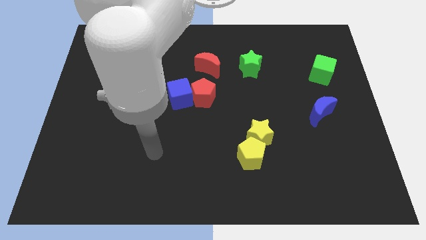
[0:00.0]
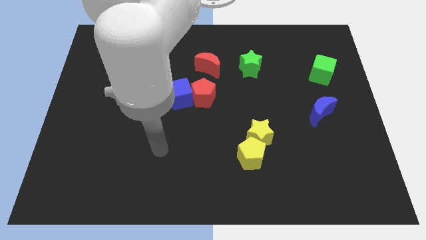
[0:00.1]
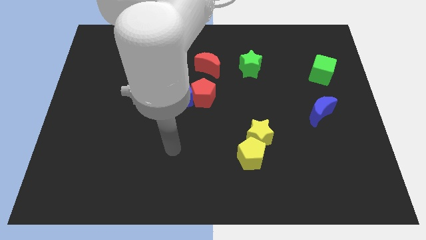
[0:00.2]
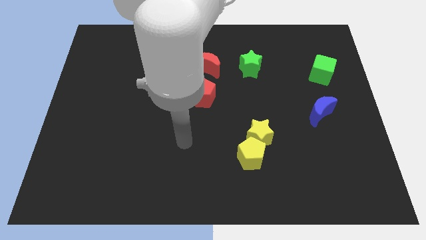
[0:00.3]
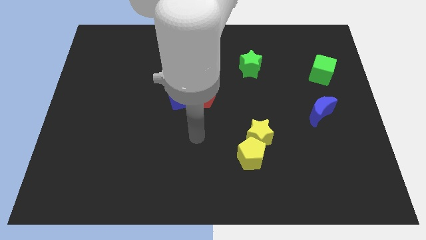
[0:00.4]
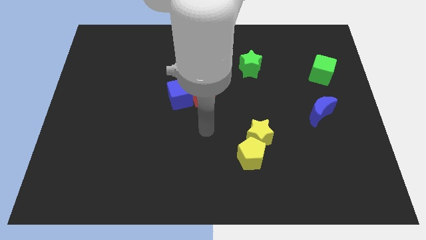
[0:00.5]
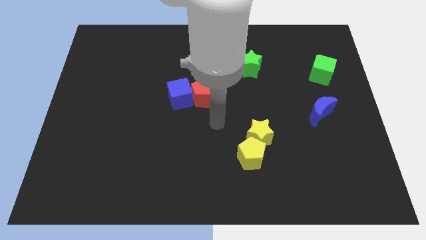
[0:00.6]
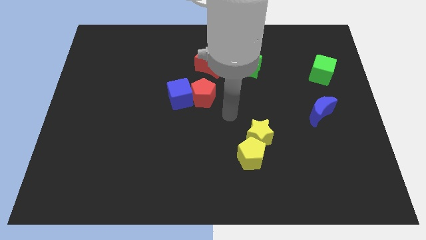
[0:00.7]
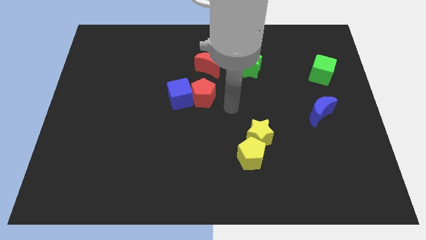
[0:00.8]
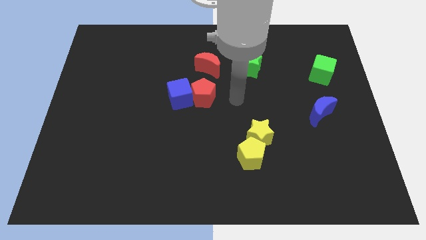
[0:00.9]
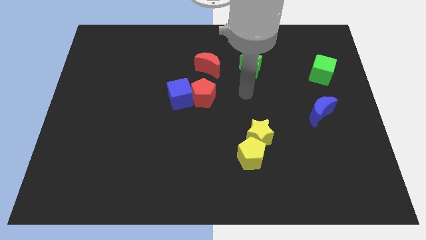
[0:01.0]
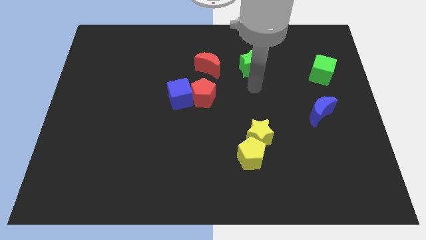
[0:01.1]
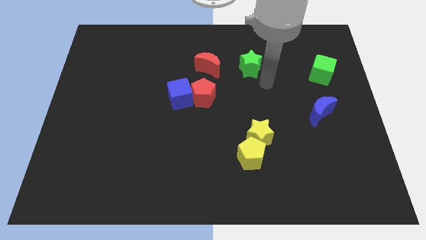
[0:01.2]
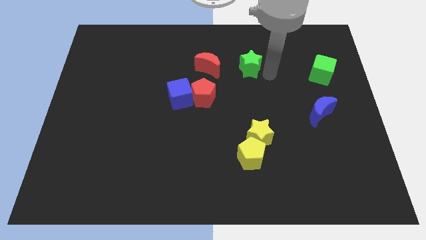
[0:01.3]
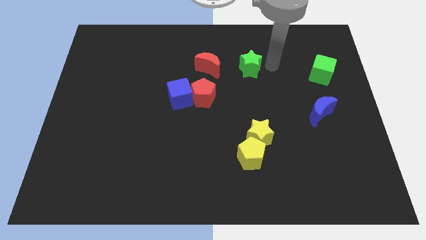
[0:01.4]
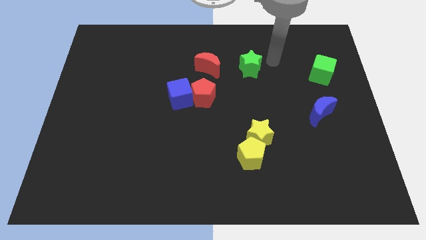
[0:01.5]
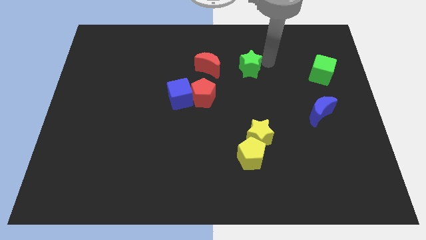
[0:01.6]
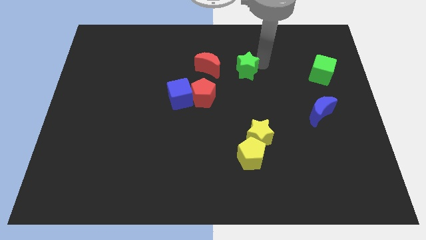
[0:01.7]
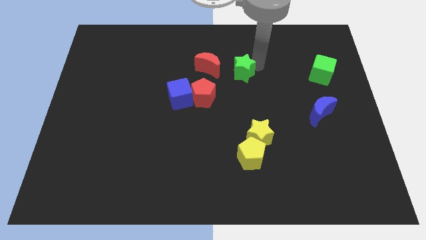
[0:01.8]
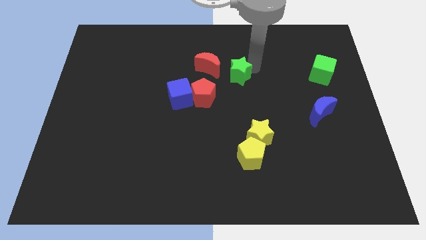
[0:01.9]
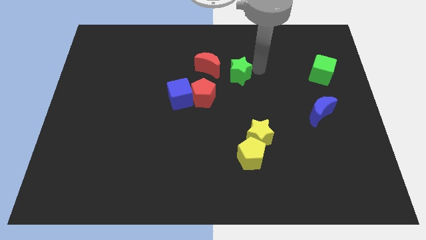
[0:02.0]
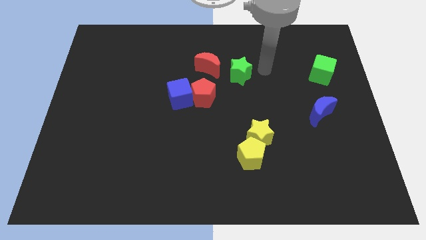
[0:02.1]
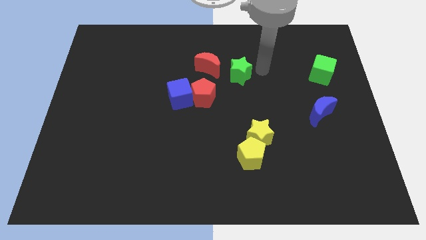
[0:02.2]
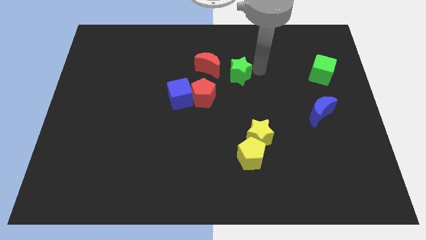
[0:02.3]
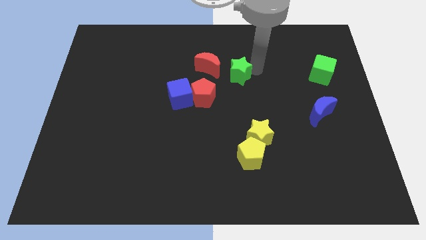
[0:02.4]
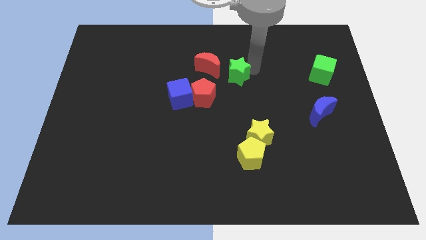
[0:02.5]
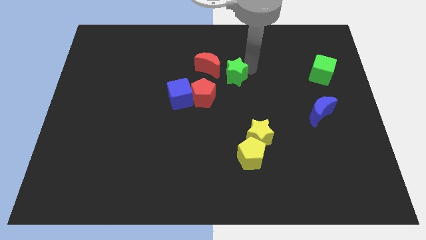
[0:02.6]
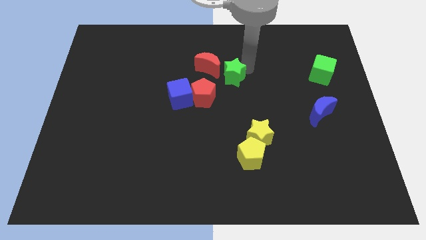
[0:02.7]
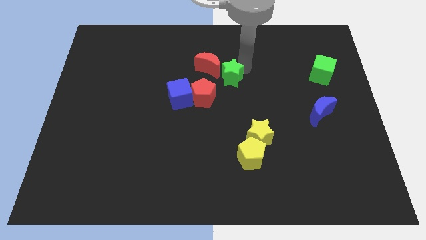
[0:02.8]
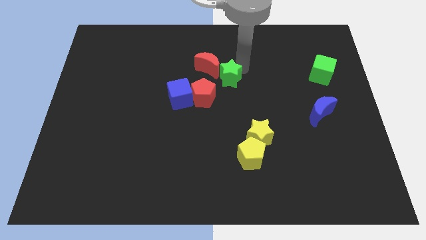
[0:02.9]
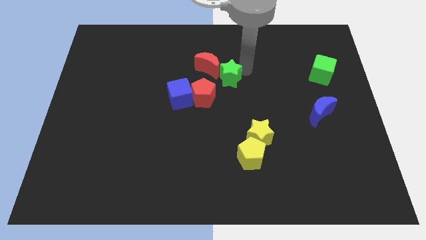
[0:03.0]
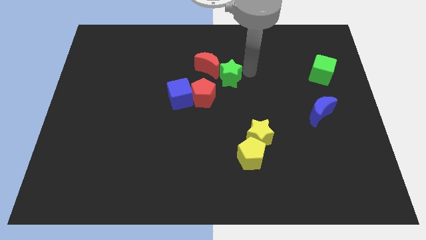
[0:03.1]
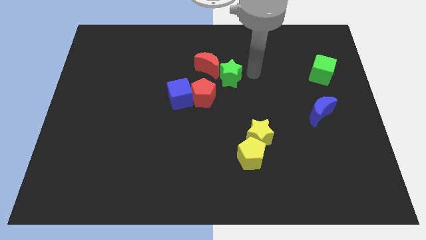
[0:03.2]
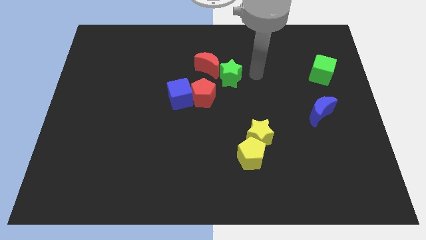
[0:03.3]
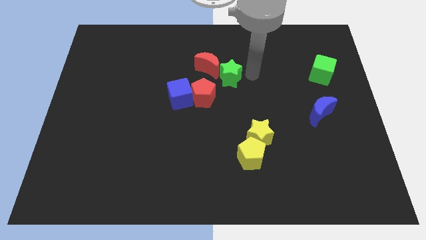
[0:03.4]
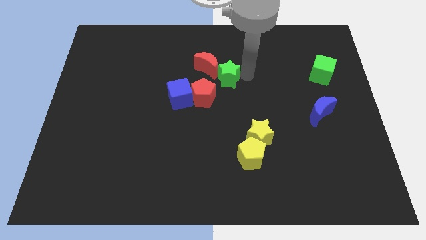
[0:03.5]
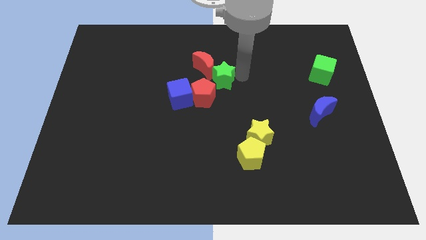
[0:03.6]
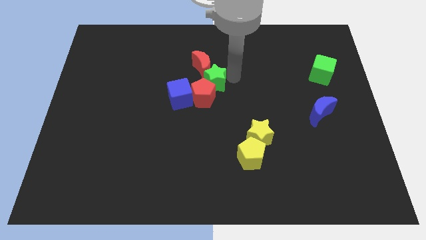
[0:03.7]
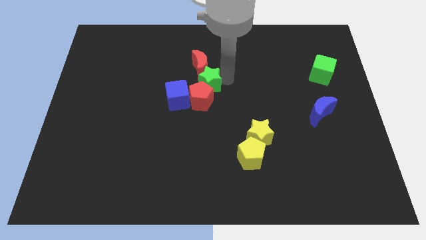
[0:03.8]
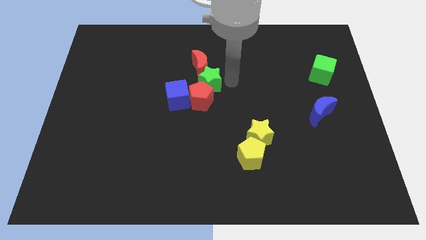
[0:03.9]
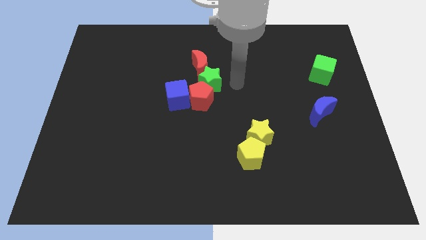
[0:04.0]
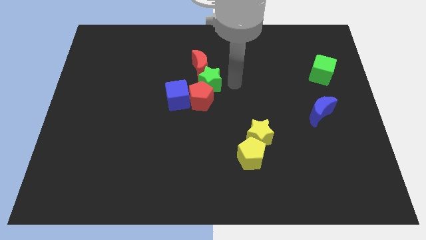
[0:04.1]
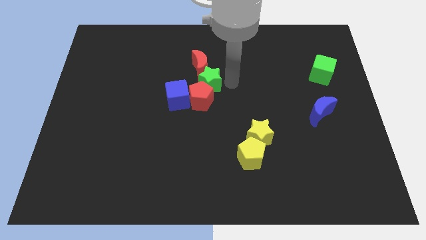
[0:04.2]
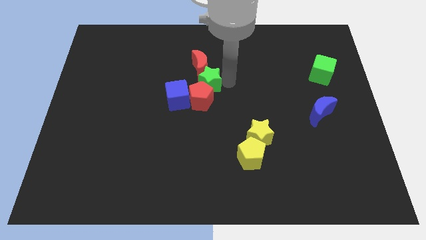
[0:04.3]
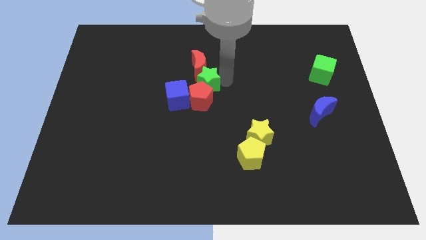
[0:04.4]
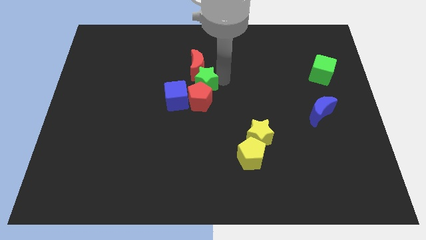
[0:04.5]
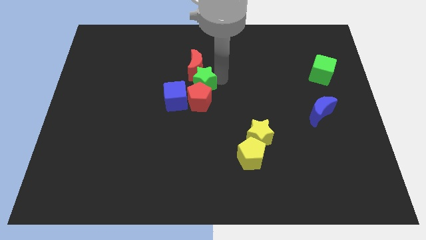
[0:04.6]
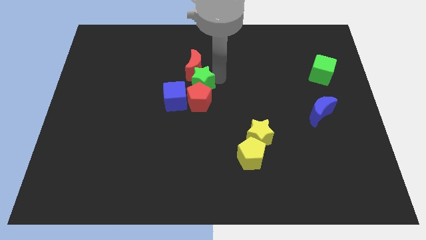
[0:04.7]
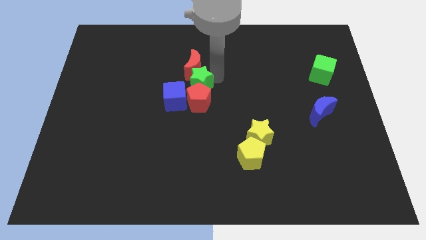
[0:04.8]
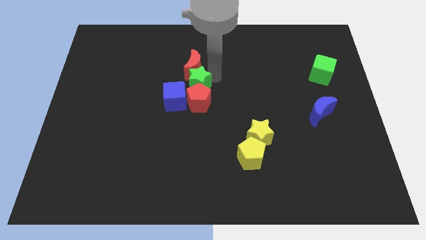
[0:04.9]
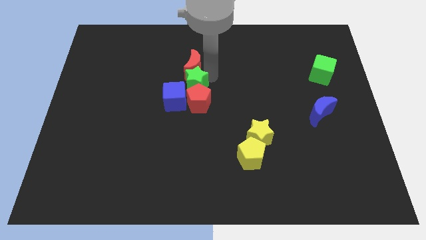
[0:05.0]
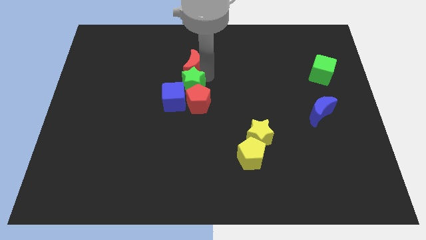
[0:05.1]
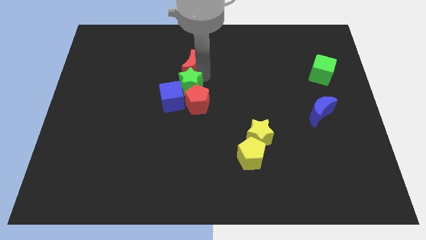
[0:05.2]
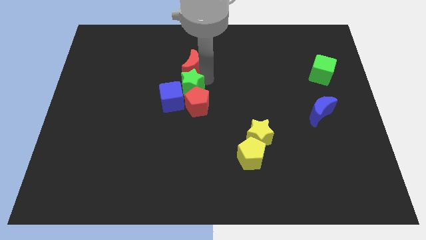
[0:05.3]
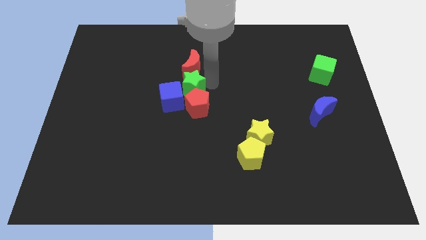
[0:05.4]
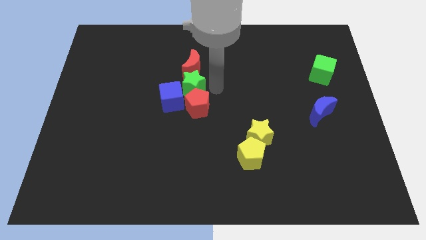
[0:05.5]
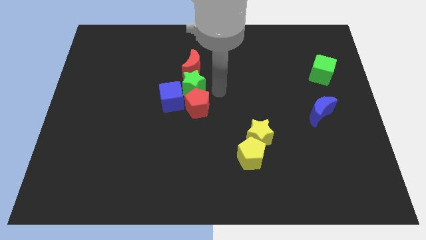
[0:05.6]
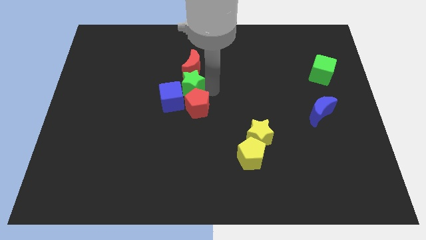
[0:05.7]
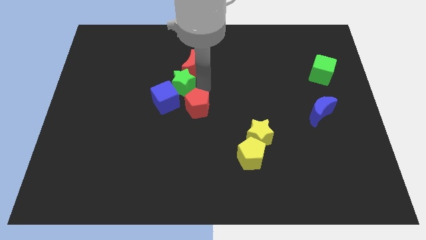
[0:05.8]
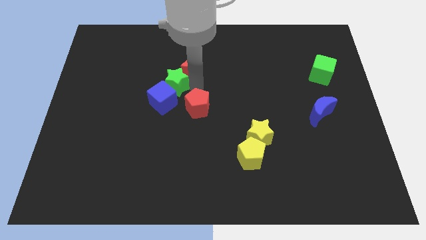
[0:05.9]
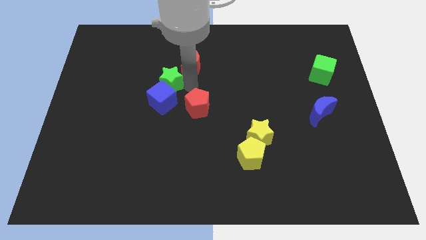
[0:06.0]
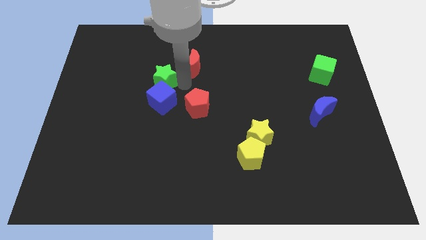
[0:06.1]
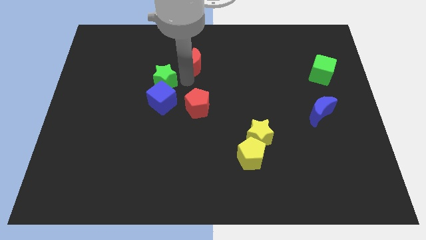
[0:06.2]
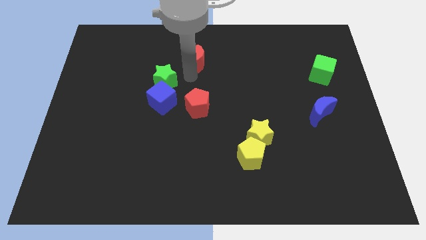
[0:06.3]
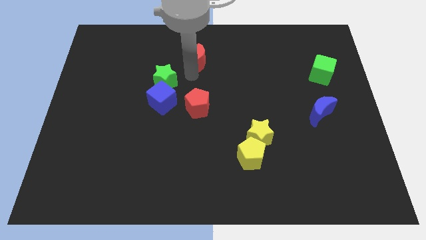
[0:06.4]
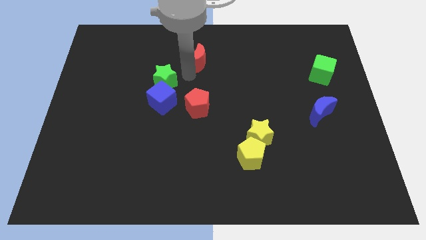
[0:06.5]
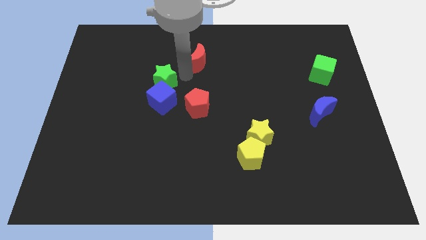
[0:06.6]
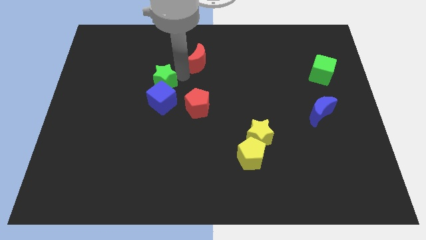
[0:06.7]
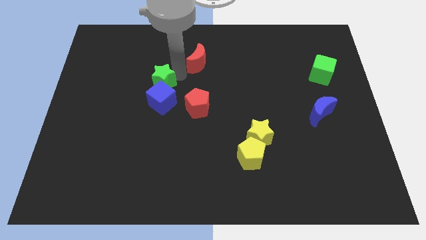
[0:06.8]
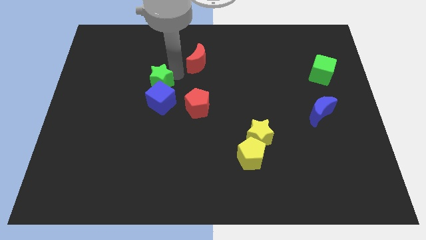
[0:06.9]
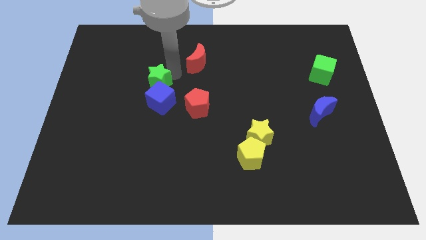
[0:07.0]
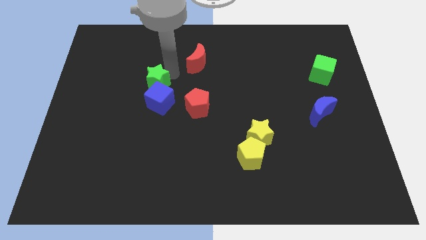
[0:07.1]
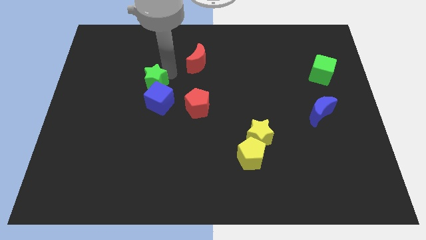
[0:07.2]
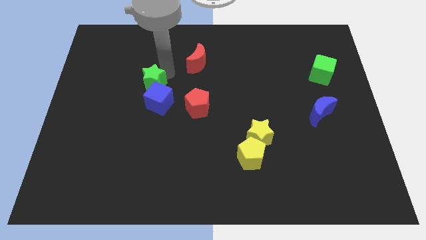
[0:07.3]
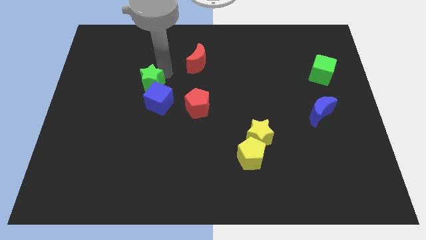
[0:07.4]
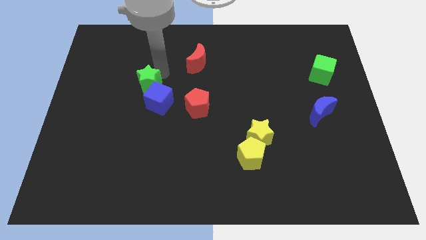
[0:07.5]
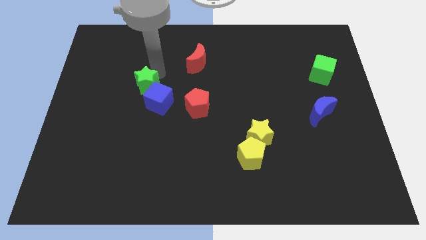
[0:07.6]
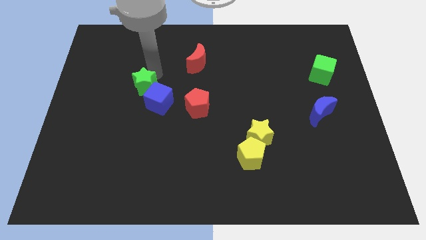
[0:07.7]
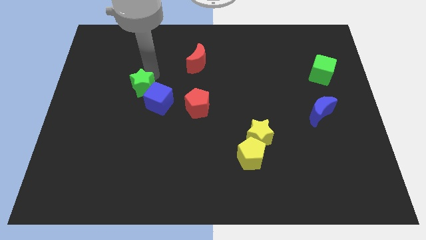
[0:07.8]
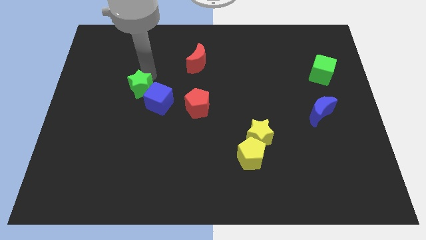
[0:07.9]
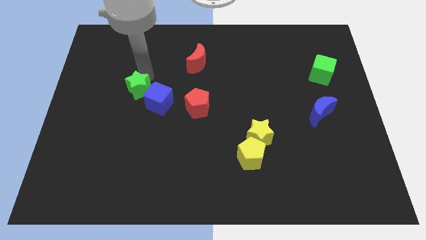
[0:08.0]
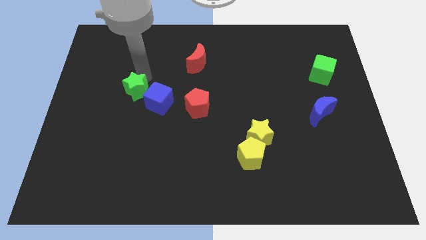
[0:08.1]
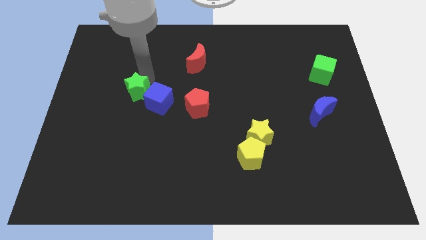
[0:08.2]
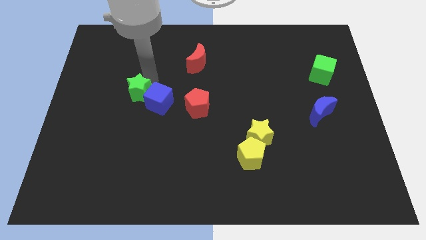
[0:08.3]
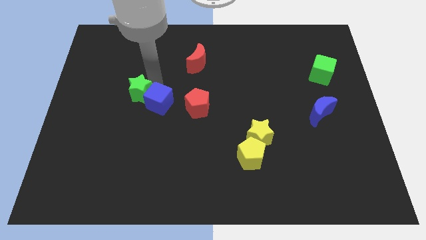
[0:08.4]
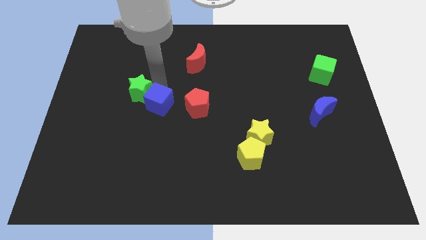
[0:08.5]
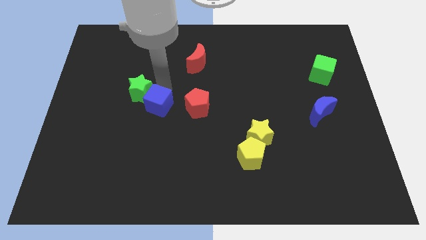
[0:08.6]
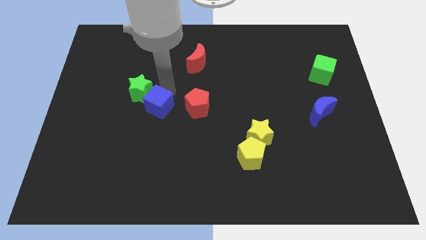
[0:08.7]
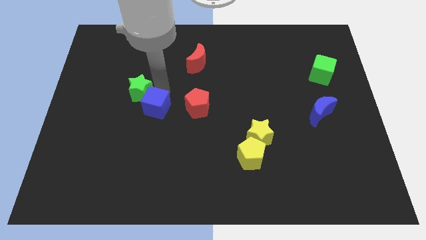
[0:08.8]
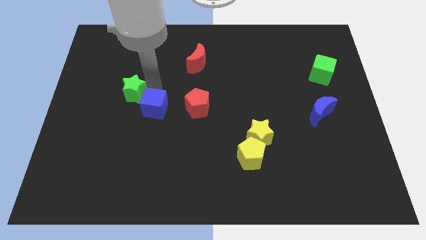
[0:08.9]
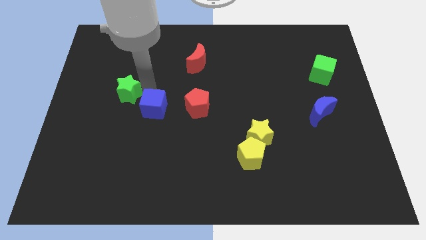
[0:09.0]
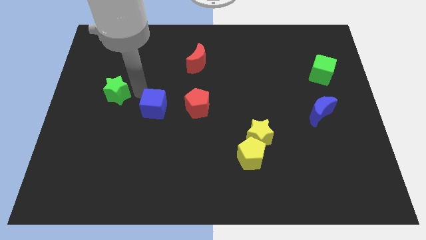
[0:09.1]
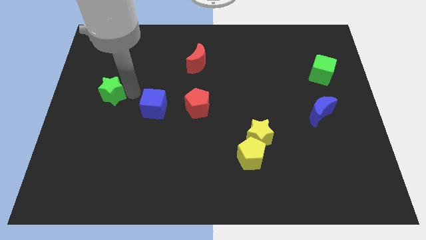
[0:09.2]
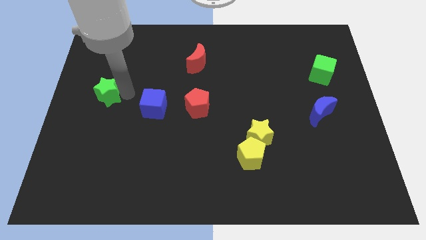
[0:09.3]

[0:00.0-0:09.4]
put the green star to the left side of the board
